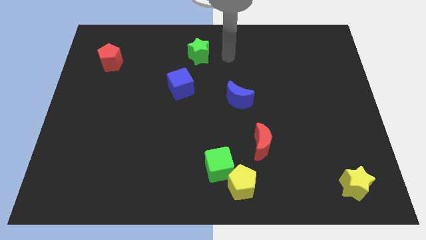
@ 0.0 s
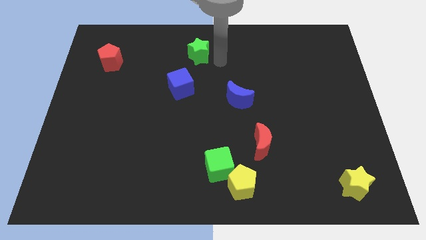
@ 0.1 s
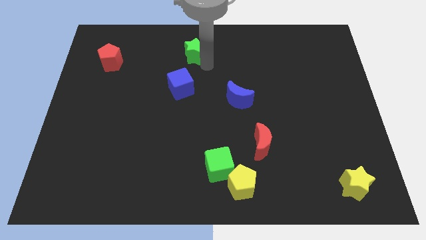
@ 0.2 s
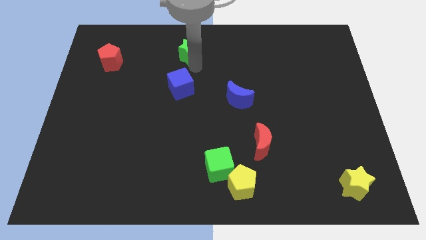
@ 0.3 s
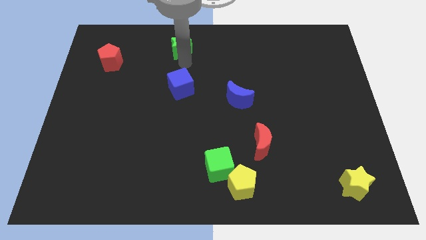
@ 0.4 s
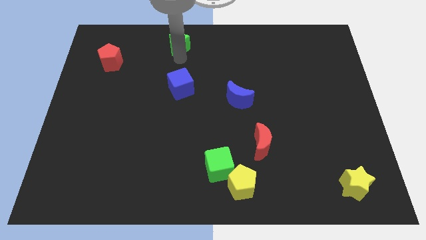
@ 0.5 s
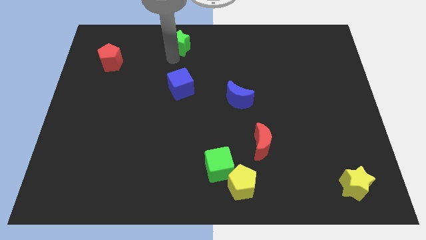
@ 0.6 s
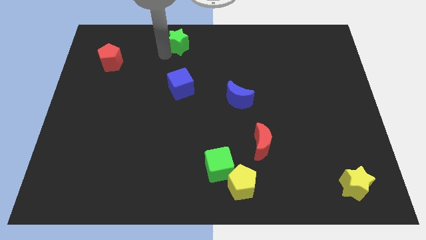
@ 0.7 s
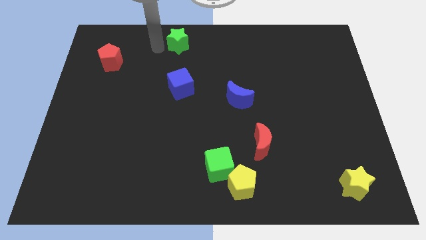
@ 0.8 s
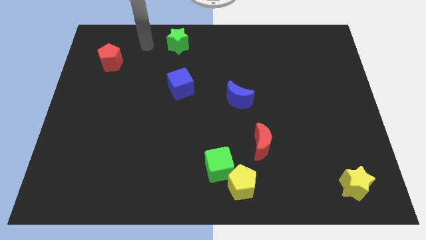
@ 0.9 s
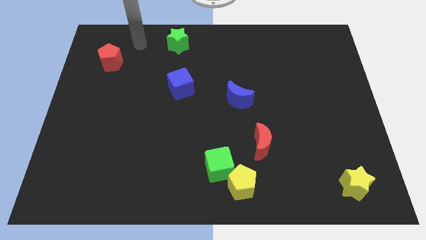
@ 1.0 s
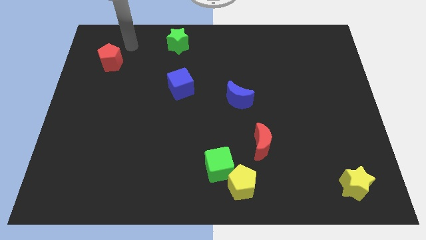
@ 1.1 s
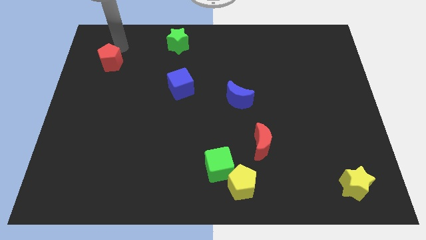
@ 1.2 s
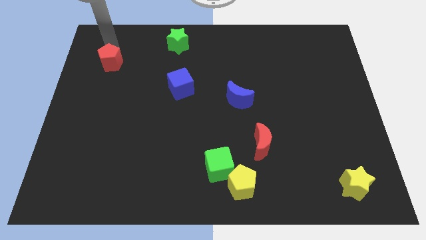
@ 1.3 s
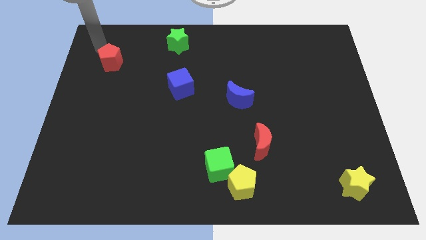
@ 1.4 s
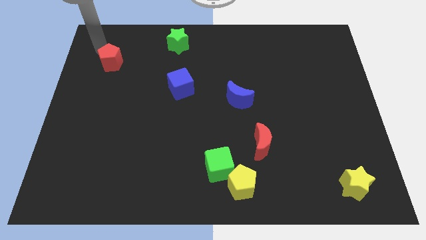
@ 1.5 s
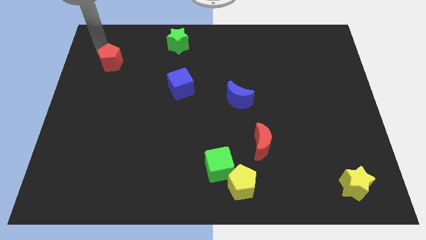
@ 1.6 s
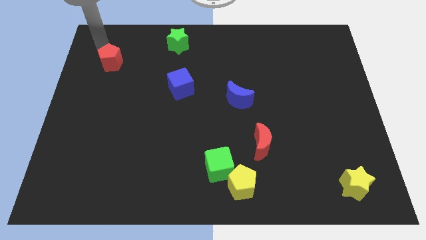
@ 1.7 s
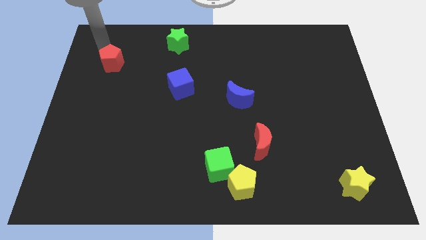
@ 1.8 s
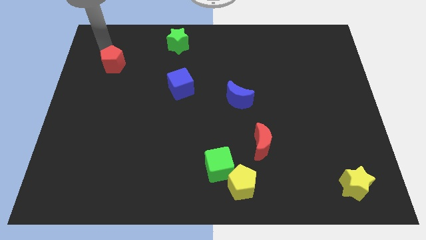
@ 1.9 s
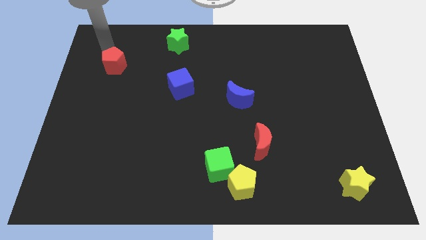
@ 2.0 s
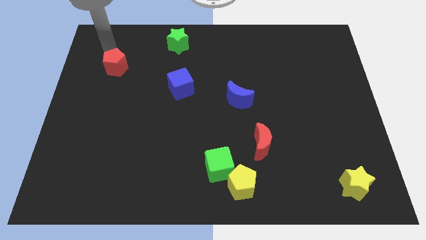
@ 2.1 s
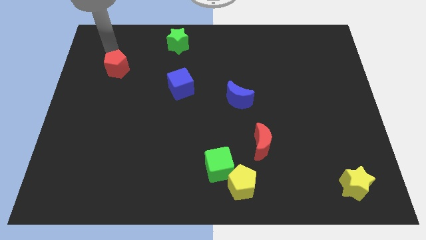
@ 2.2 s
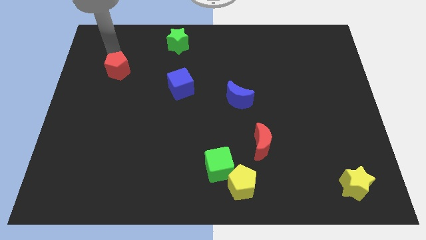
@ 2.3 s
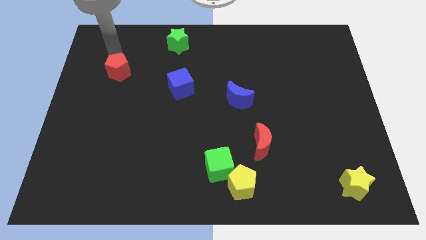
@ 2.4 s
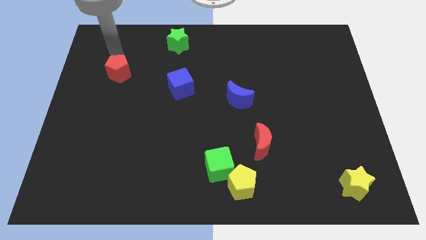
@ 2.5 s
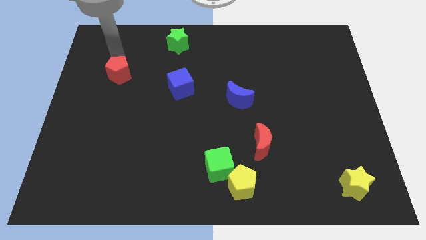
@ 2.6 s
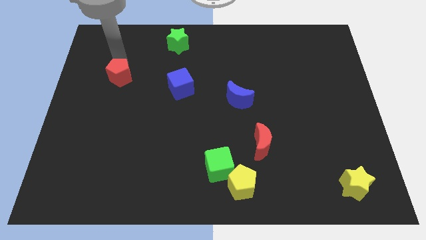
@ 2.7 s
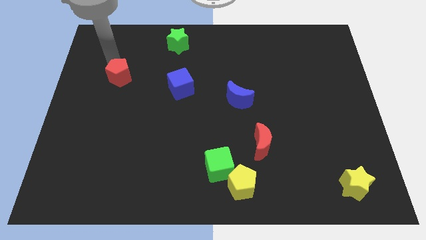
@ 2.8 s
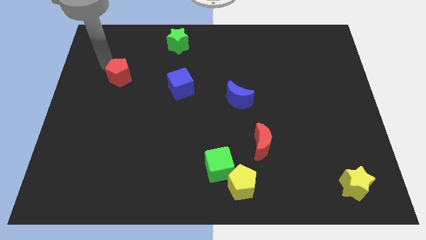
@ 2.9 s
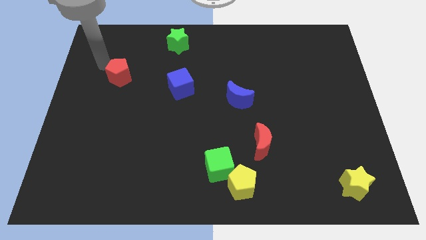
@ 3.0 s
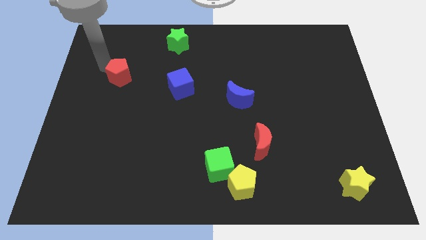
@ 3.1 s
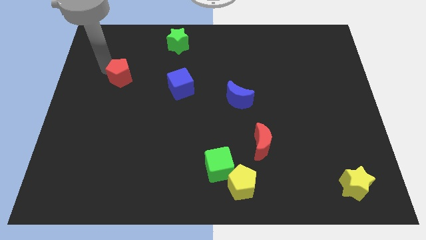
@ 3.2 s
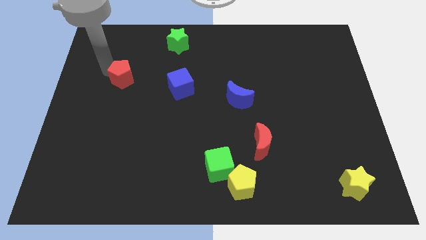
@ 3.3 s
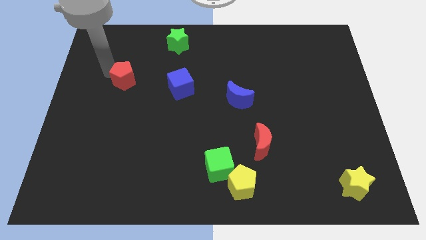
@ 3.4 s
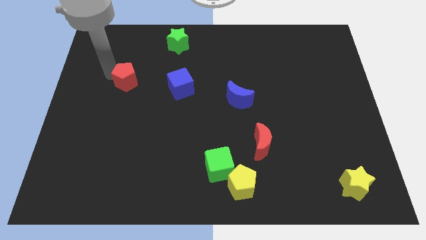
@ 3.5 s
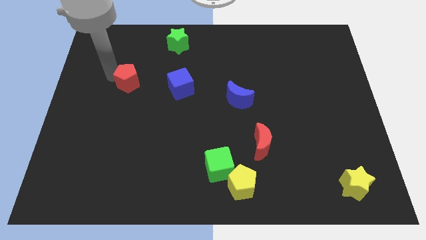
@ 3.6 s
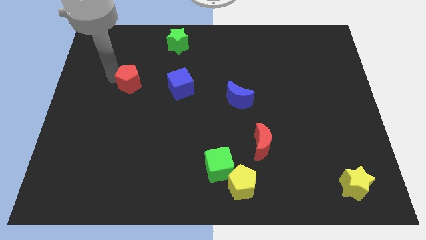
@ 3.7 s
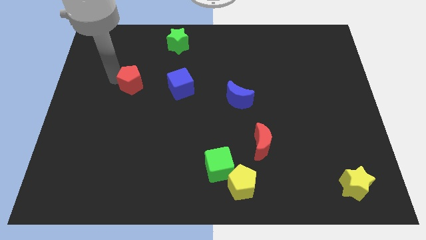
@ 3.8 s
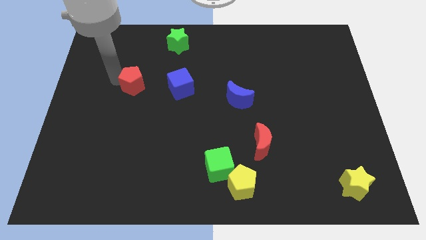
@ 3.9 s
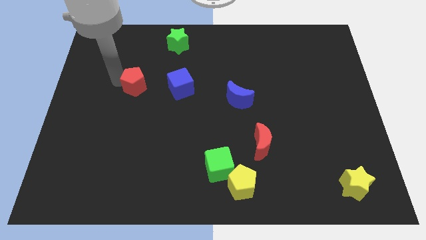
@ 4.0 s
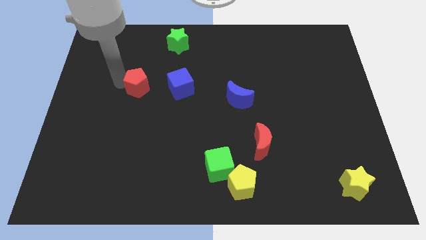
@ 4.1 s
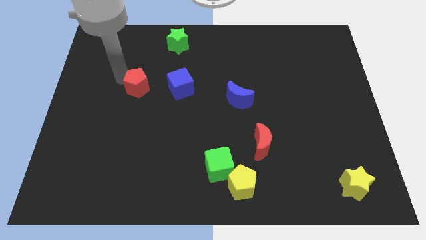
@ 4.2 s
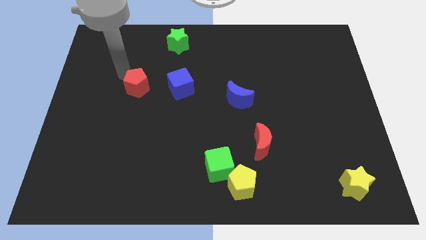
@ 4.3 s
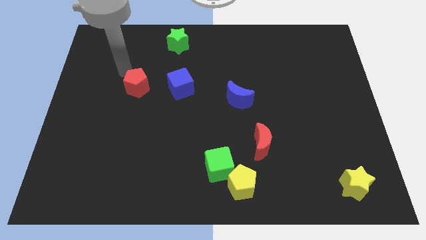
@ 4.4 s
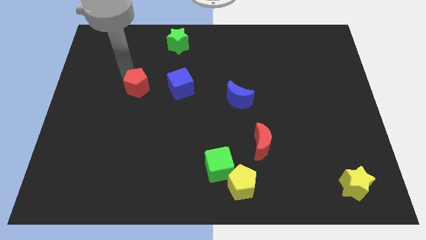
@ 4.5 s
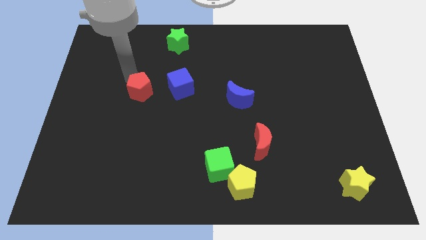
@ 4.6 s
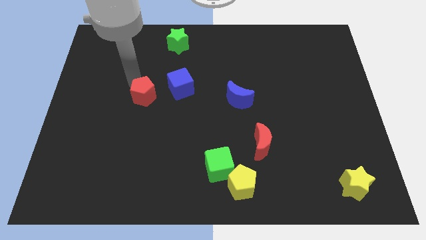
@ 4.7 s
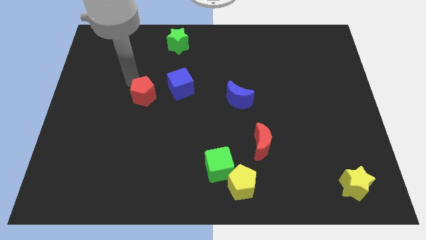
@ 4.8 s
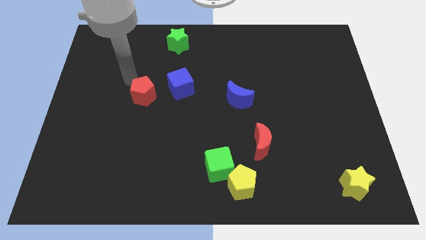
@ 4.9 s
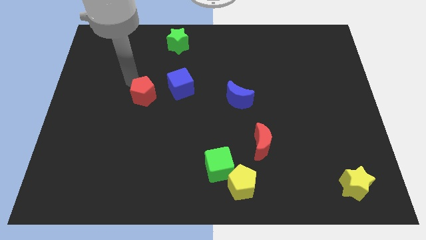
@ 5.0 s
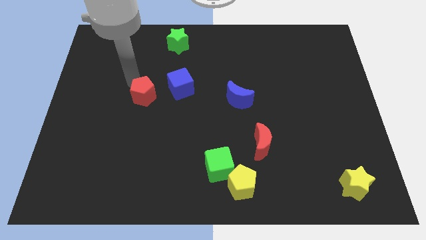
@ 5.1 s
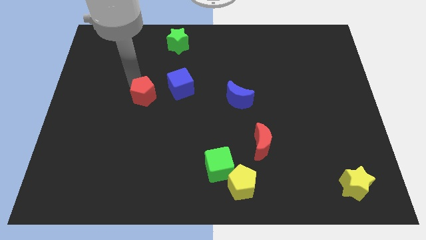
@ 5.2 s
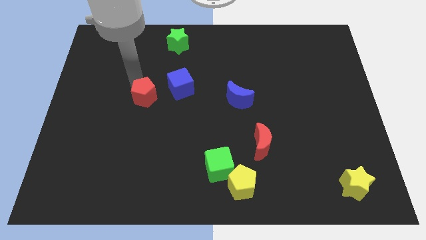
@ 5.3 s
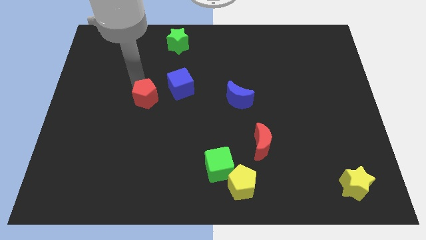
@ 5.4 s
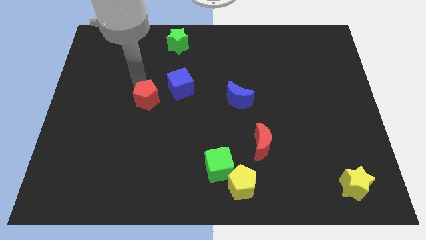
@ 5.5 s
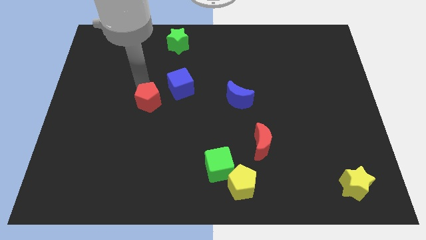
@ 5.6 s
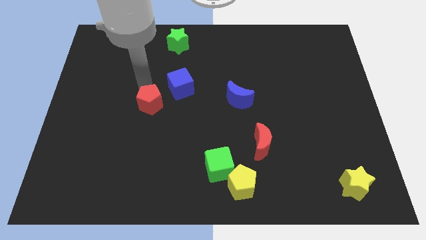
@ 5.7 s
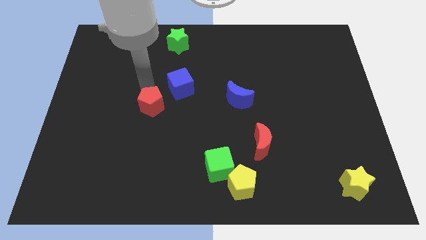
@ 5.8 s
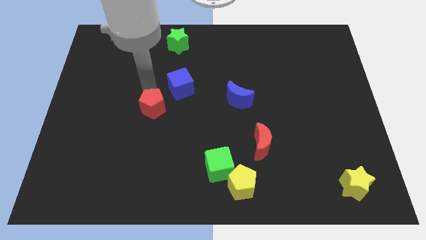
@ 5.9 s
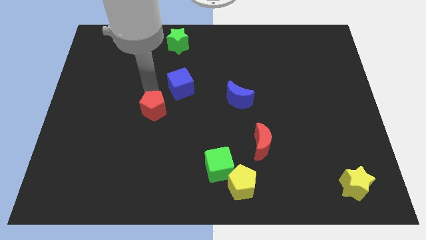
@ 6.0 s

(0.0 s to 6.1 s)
push the red pentagon downwards and right diagonally

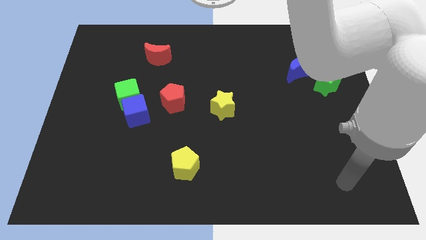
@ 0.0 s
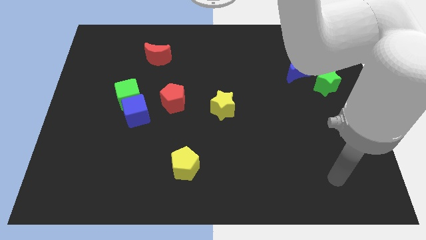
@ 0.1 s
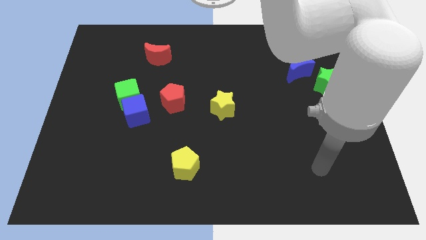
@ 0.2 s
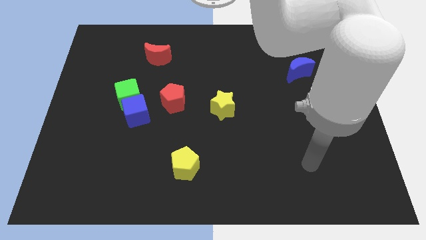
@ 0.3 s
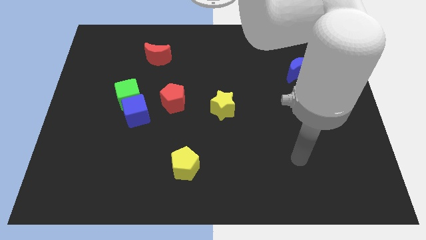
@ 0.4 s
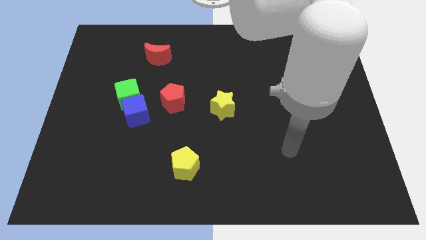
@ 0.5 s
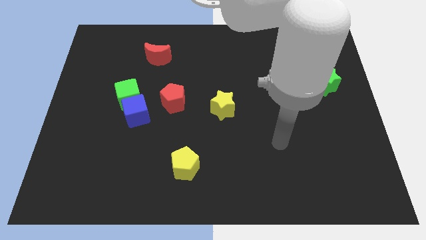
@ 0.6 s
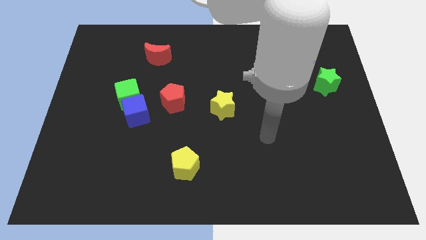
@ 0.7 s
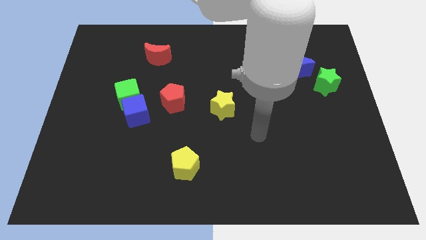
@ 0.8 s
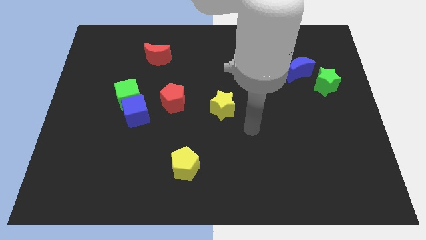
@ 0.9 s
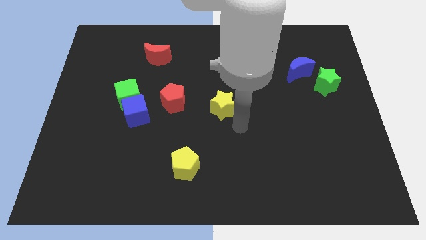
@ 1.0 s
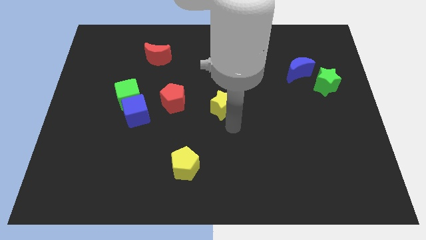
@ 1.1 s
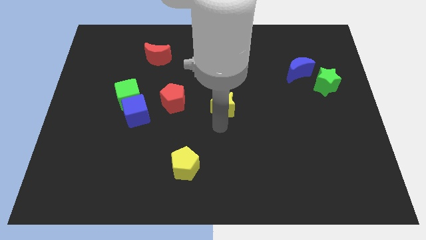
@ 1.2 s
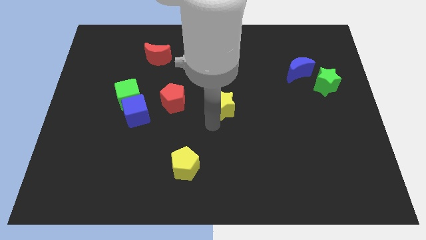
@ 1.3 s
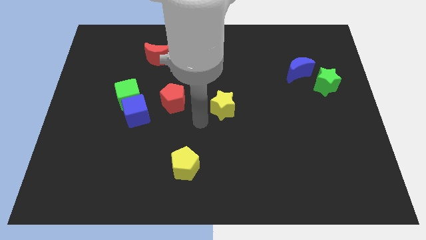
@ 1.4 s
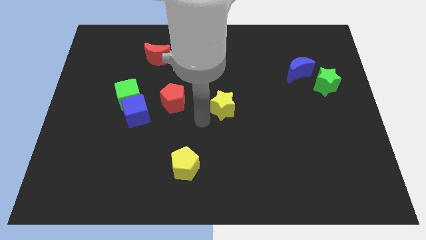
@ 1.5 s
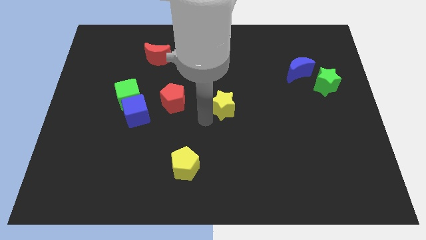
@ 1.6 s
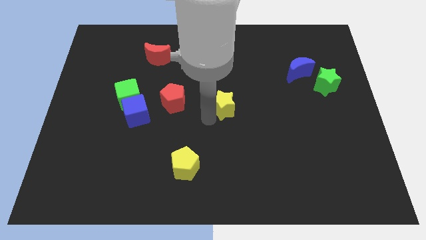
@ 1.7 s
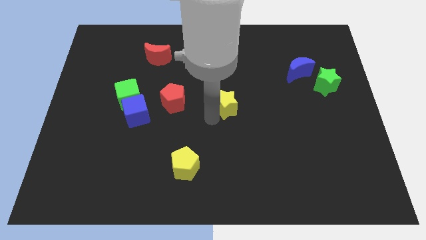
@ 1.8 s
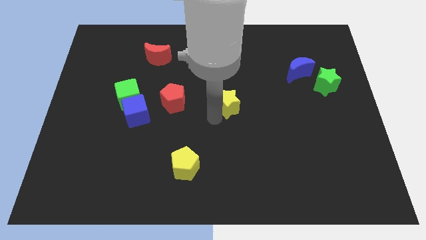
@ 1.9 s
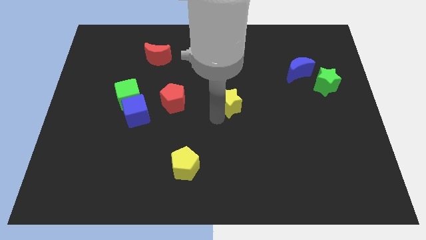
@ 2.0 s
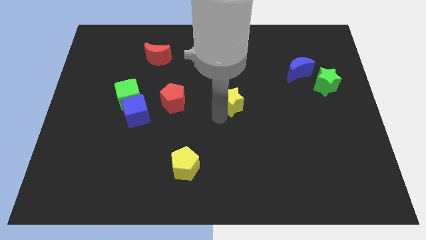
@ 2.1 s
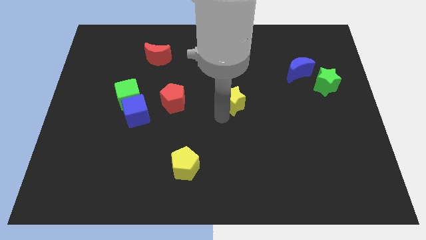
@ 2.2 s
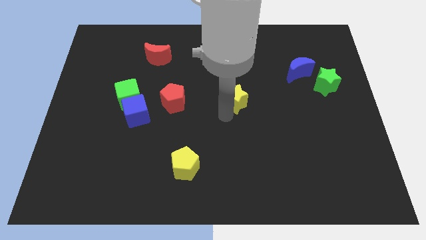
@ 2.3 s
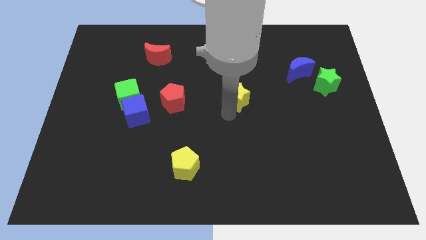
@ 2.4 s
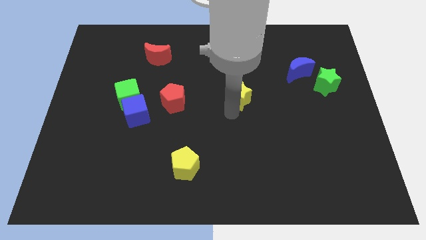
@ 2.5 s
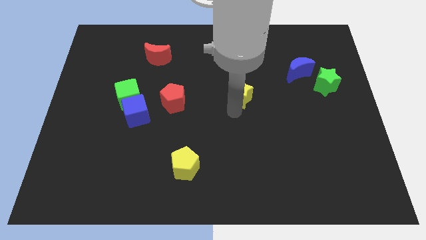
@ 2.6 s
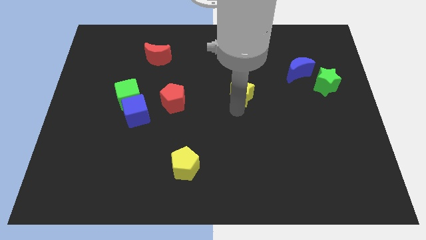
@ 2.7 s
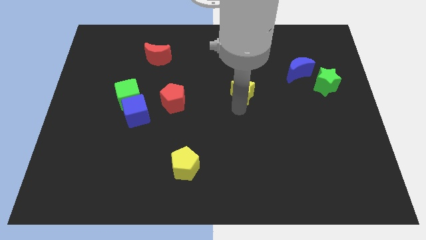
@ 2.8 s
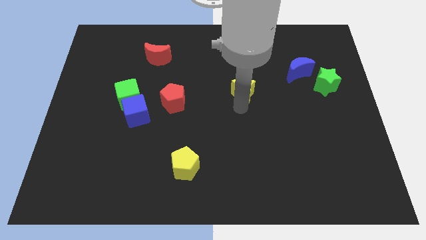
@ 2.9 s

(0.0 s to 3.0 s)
slightly slide the yellow star up and right
